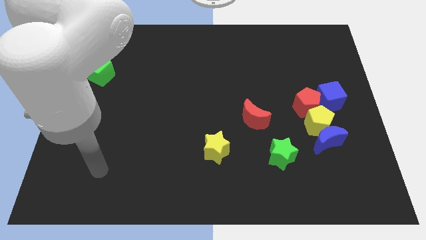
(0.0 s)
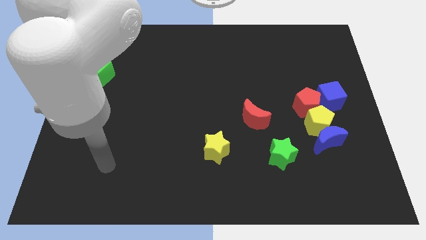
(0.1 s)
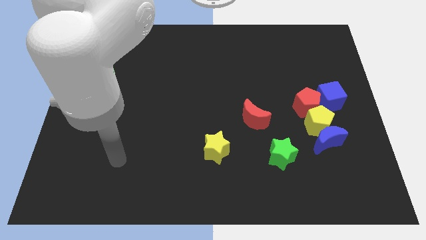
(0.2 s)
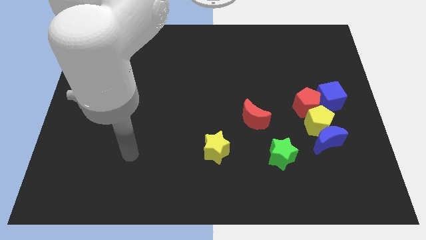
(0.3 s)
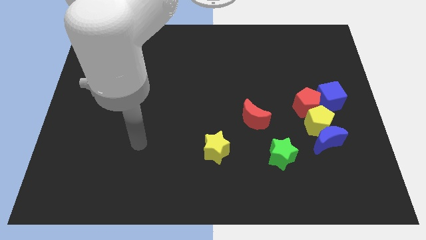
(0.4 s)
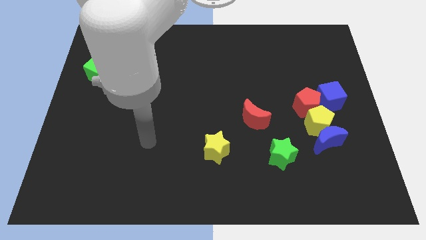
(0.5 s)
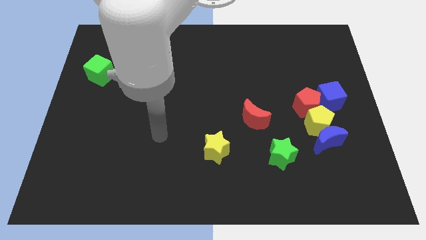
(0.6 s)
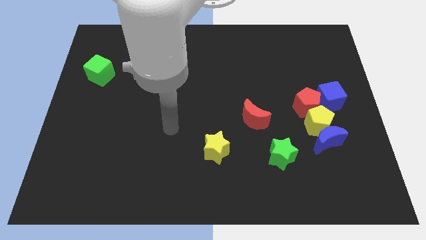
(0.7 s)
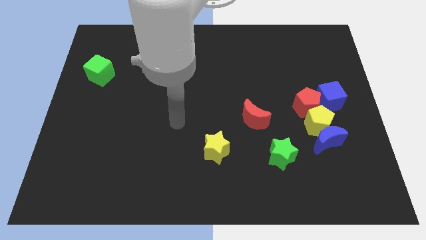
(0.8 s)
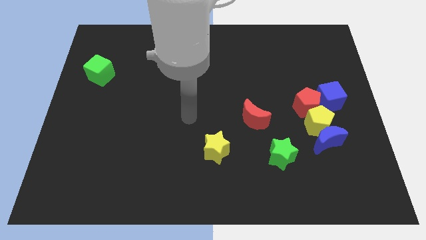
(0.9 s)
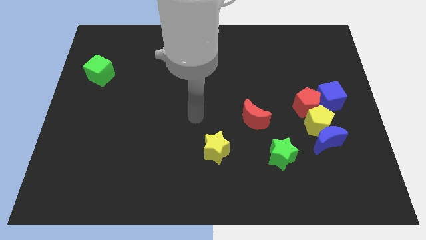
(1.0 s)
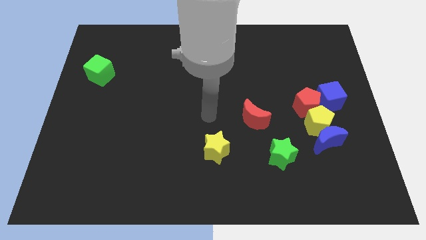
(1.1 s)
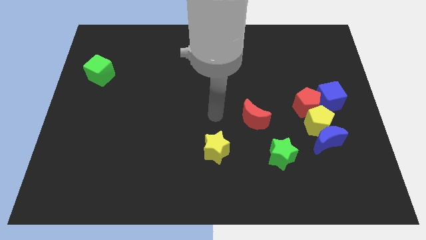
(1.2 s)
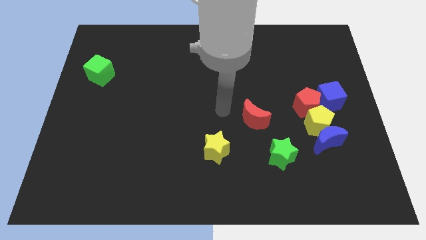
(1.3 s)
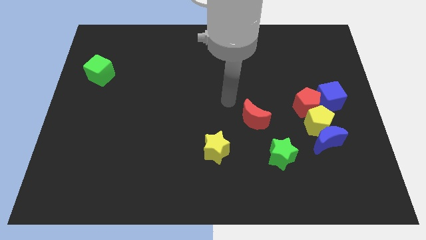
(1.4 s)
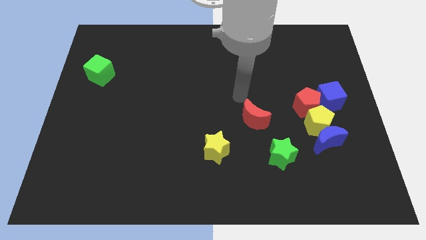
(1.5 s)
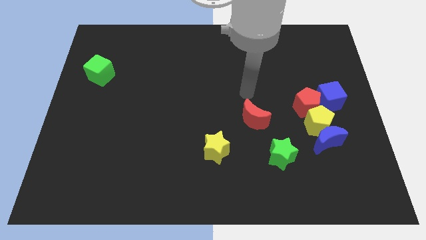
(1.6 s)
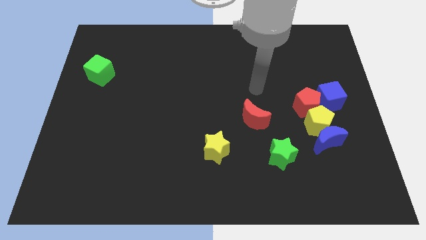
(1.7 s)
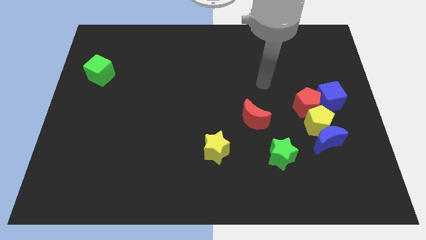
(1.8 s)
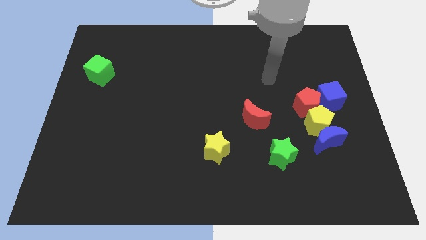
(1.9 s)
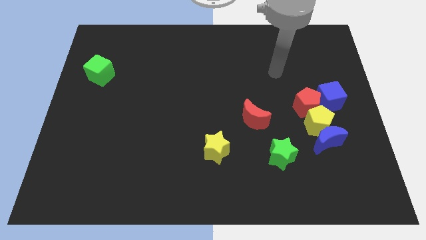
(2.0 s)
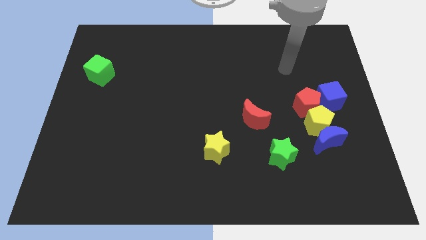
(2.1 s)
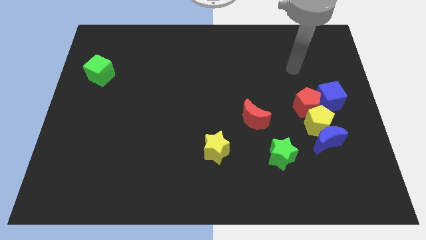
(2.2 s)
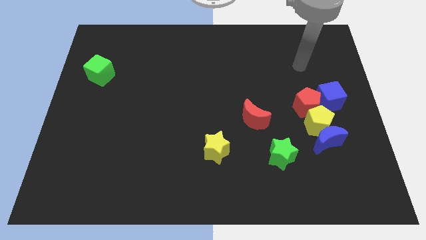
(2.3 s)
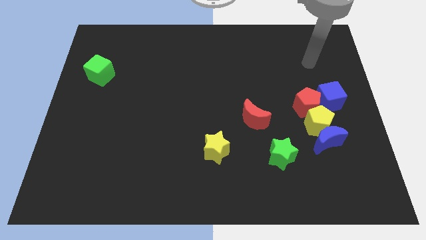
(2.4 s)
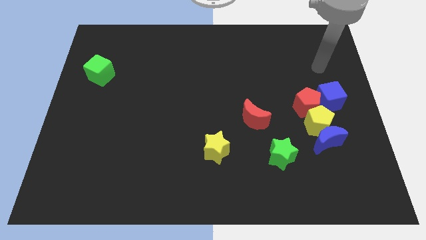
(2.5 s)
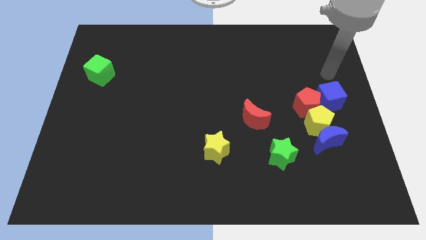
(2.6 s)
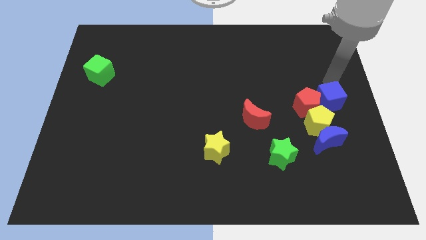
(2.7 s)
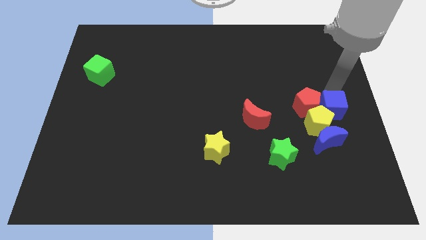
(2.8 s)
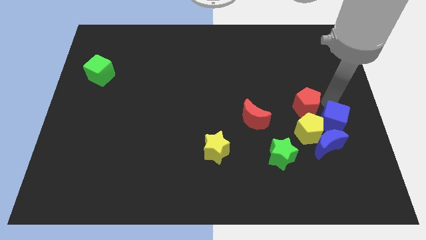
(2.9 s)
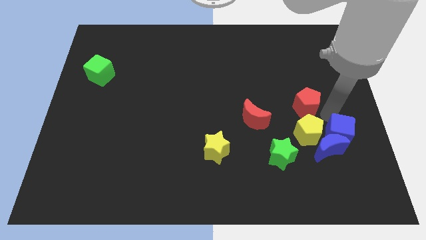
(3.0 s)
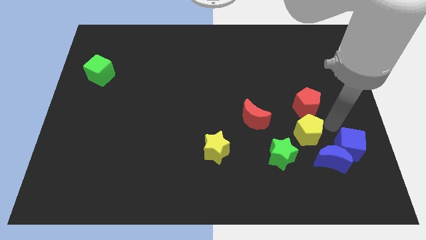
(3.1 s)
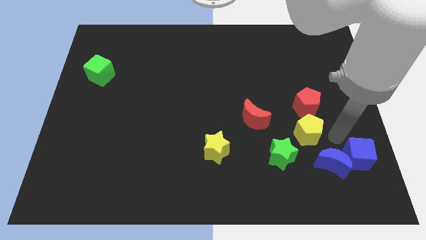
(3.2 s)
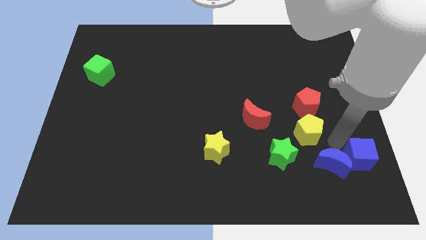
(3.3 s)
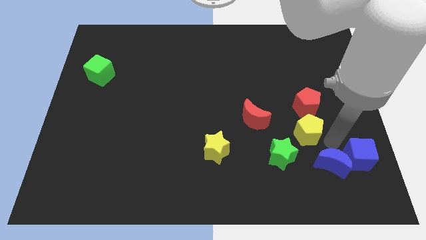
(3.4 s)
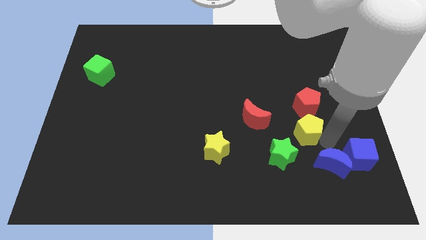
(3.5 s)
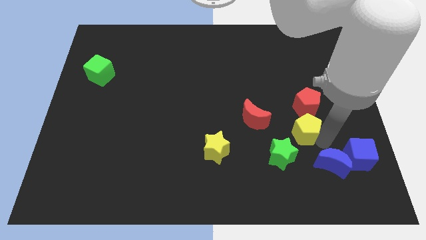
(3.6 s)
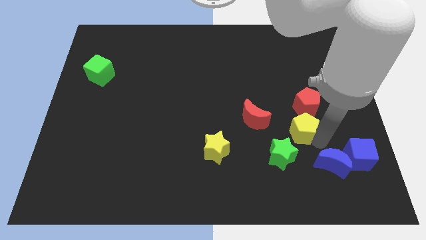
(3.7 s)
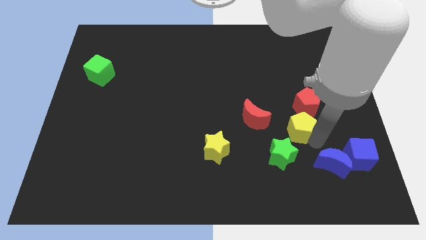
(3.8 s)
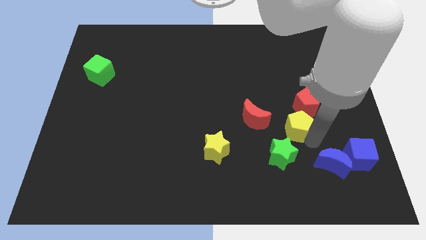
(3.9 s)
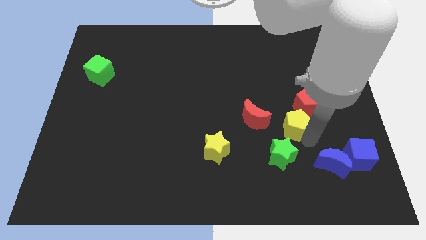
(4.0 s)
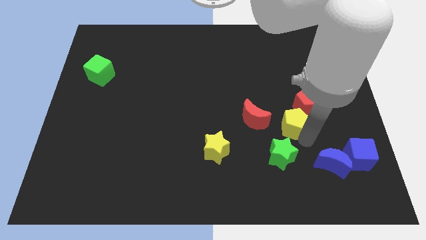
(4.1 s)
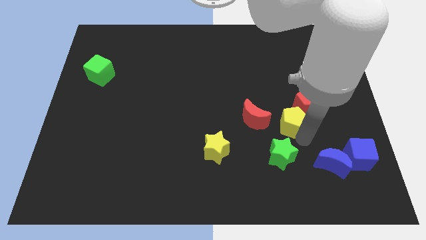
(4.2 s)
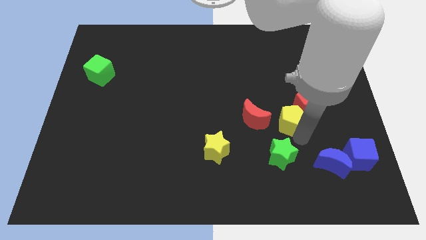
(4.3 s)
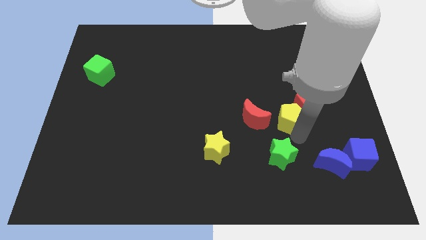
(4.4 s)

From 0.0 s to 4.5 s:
pull the yellow pentagon apart from the clump

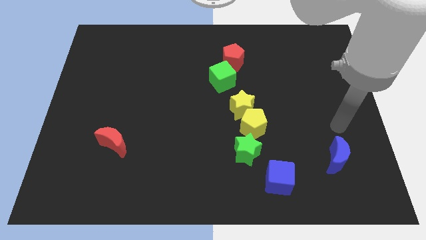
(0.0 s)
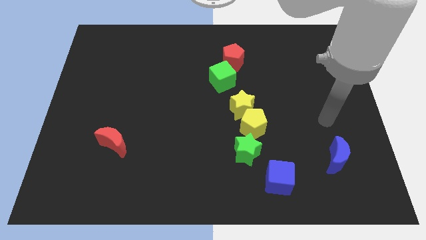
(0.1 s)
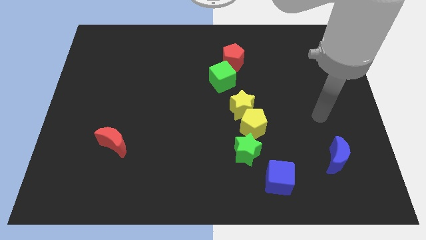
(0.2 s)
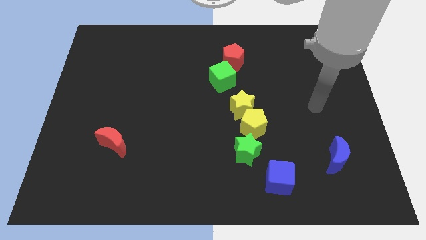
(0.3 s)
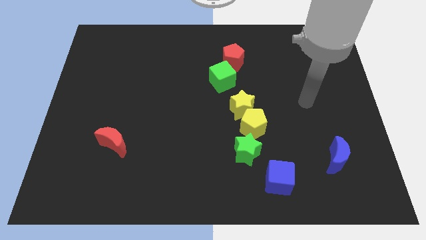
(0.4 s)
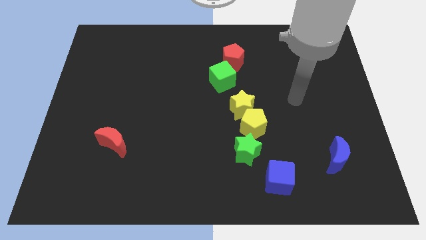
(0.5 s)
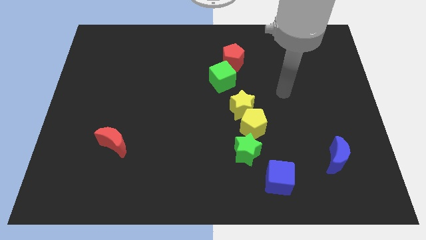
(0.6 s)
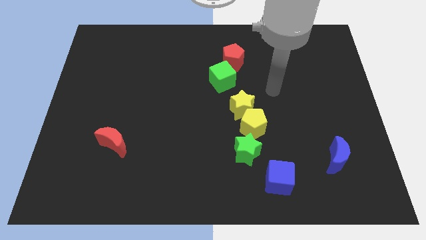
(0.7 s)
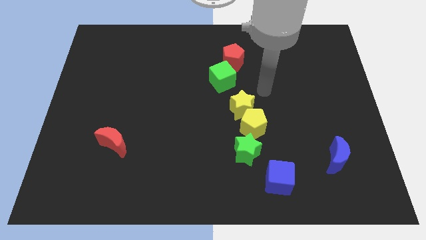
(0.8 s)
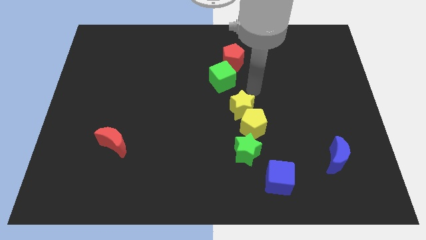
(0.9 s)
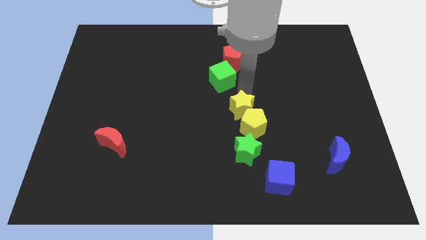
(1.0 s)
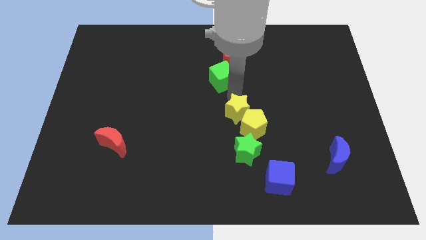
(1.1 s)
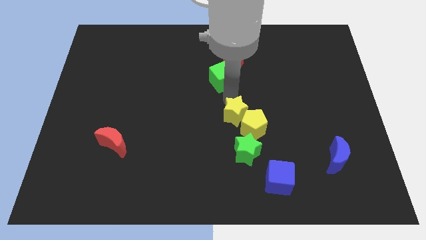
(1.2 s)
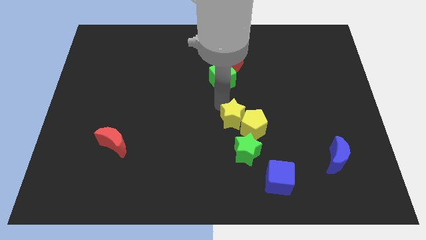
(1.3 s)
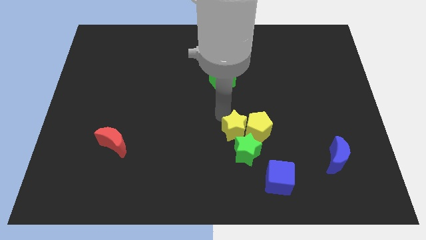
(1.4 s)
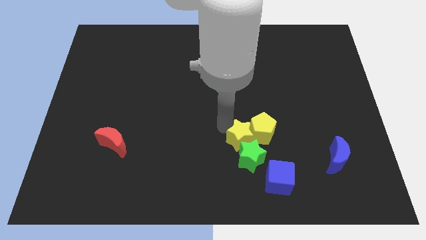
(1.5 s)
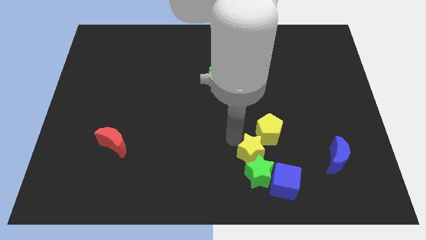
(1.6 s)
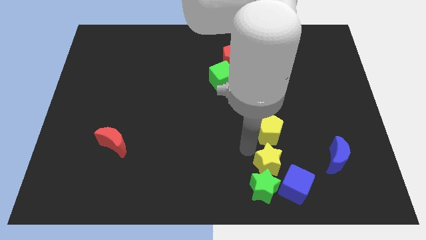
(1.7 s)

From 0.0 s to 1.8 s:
separate the yellow pentagon from the yellow star and green star

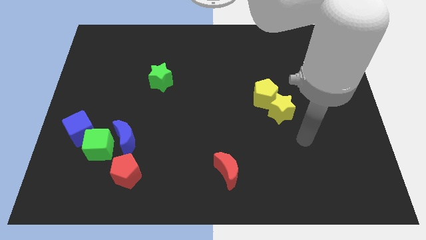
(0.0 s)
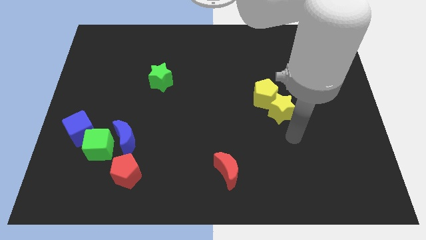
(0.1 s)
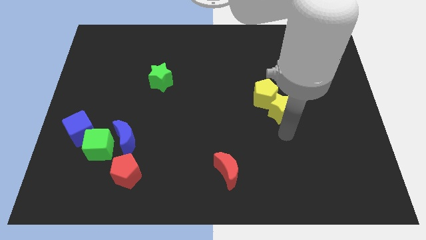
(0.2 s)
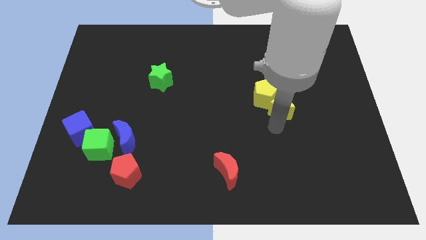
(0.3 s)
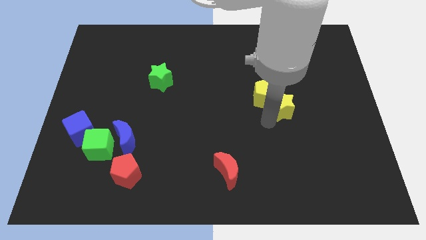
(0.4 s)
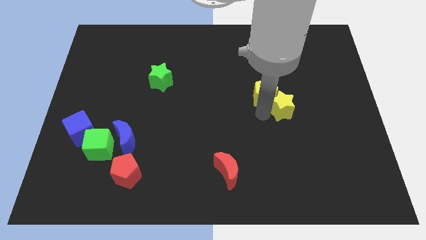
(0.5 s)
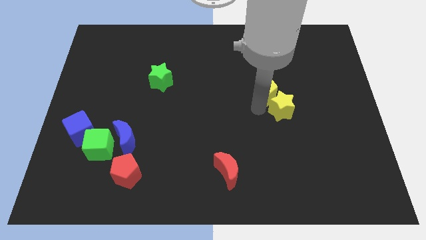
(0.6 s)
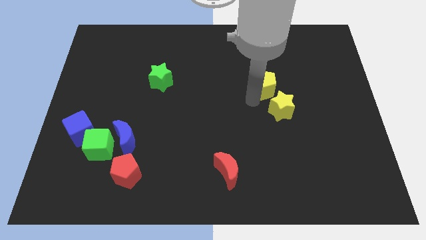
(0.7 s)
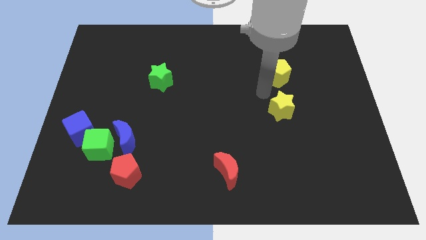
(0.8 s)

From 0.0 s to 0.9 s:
move the yellow star away from the yellow pentagon

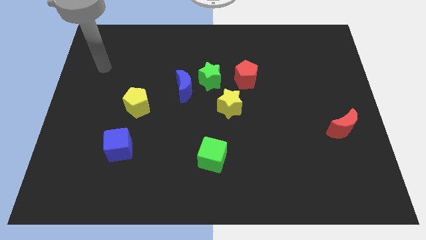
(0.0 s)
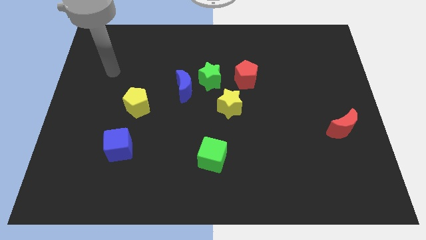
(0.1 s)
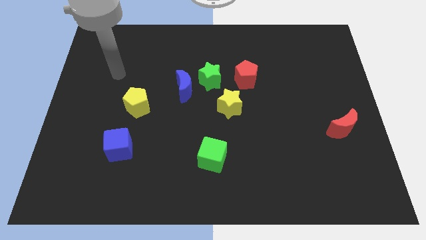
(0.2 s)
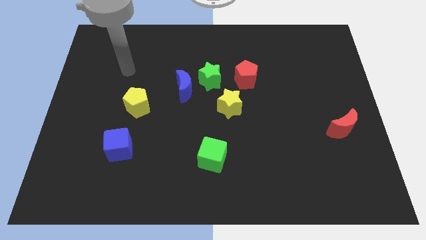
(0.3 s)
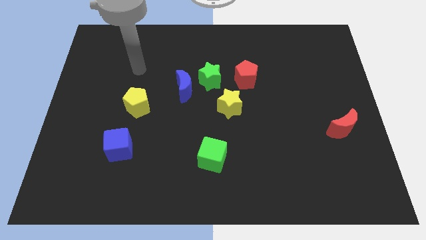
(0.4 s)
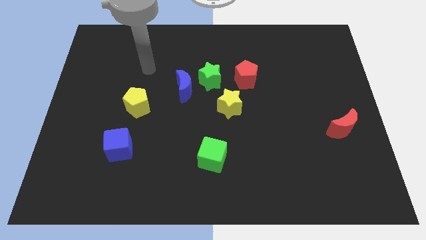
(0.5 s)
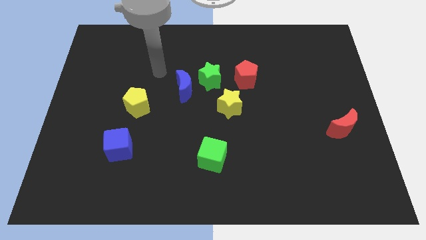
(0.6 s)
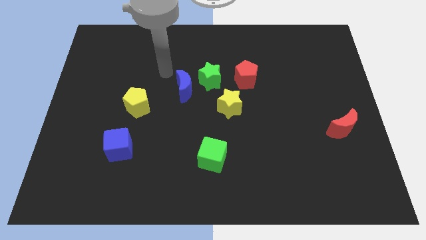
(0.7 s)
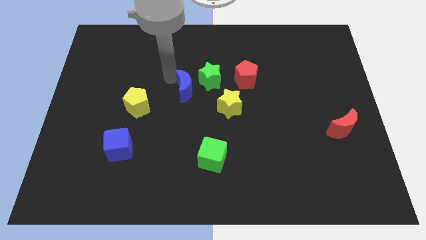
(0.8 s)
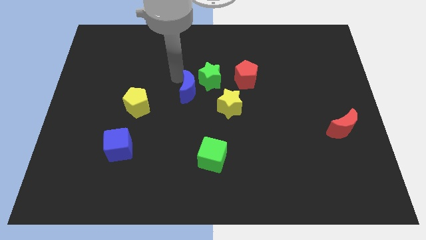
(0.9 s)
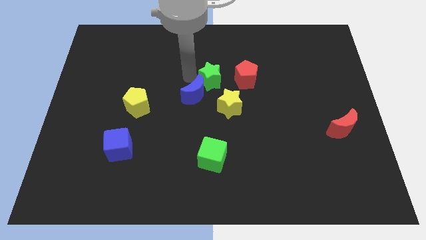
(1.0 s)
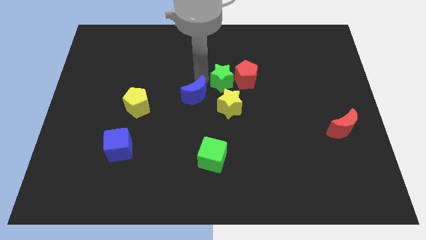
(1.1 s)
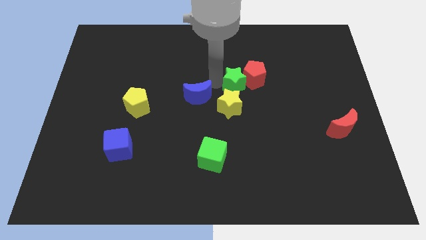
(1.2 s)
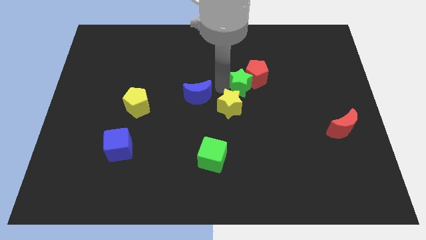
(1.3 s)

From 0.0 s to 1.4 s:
pull the blue moon apart from the green star

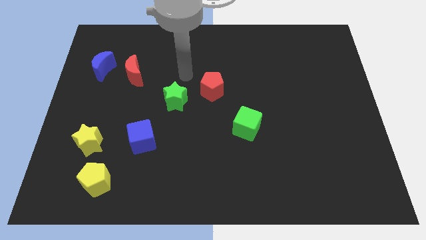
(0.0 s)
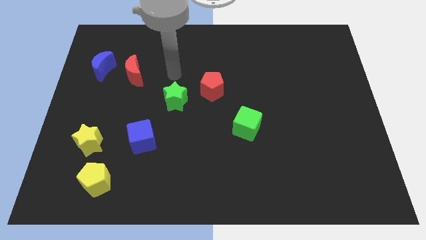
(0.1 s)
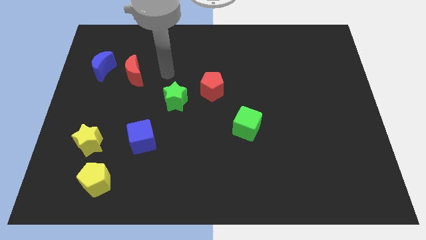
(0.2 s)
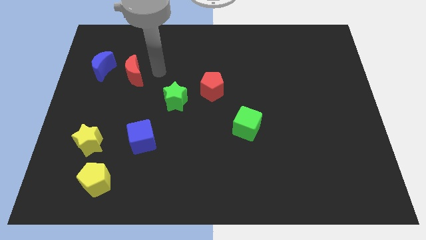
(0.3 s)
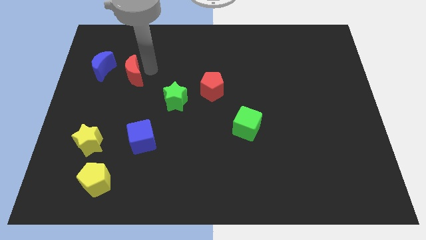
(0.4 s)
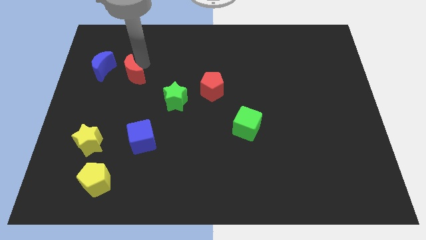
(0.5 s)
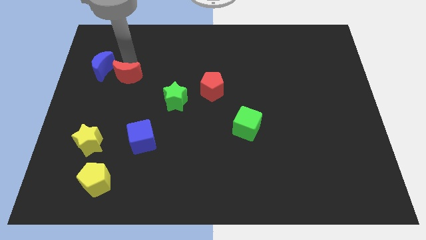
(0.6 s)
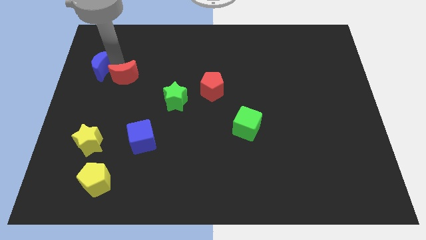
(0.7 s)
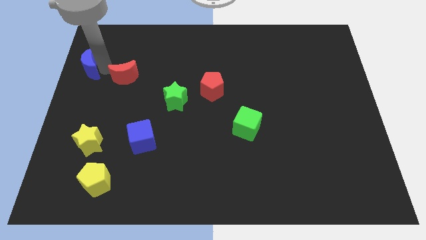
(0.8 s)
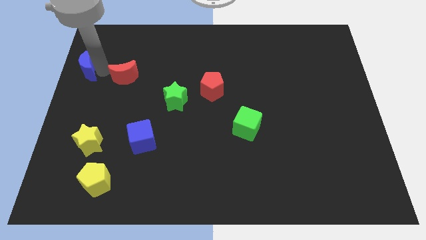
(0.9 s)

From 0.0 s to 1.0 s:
pull the red moon apart from the blue moon
